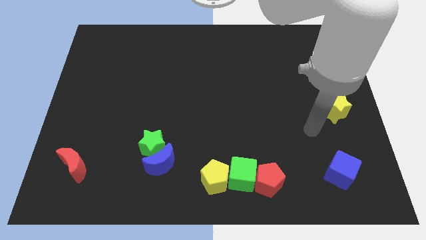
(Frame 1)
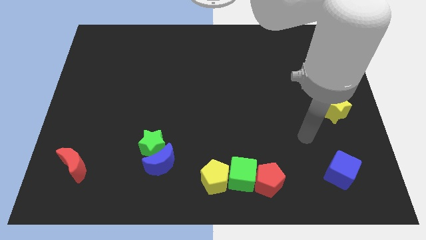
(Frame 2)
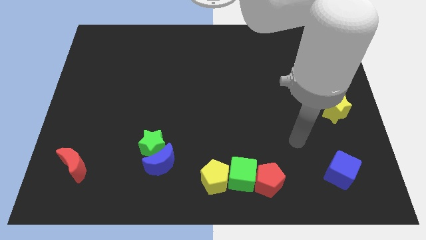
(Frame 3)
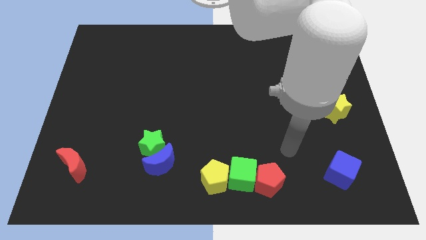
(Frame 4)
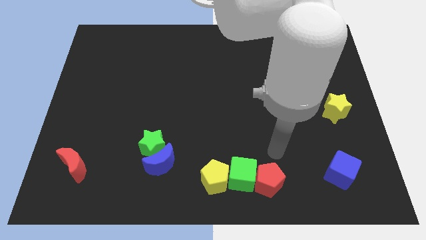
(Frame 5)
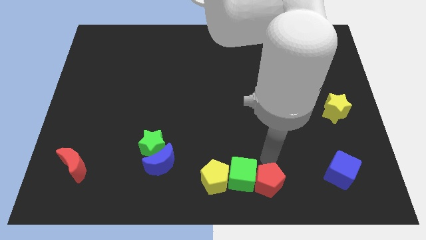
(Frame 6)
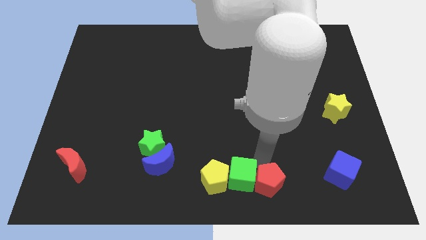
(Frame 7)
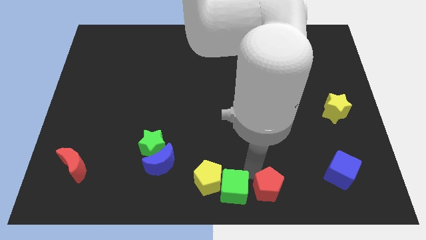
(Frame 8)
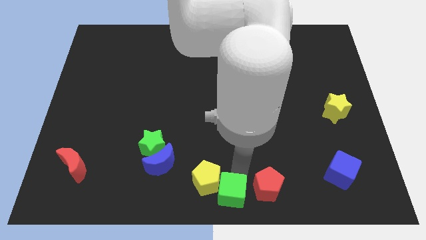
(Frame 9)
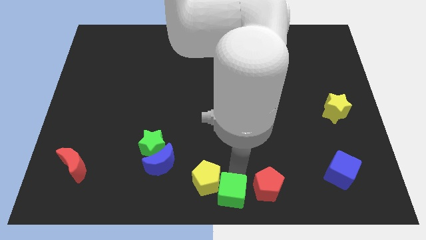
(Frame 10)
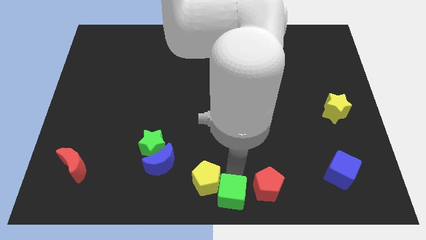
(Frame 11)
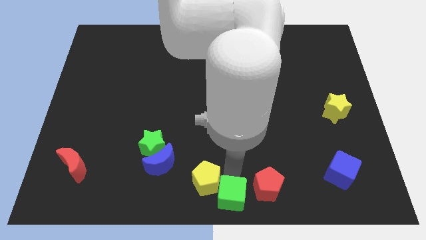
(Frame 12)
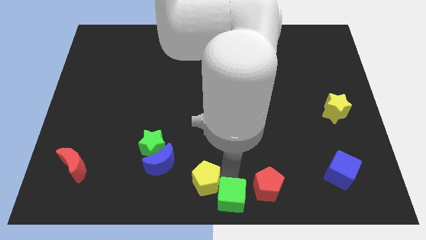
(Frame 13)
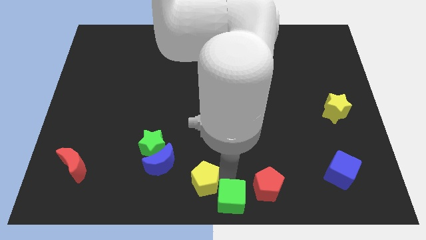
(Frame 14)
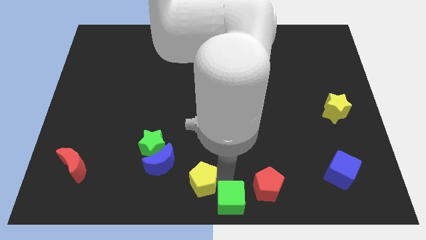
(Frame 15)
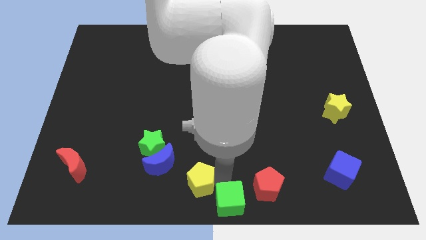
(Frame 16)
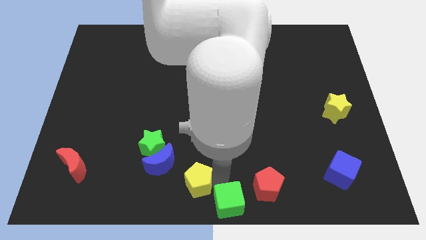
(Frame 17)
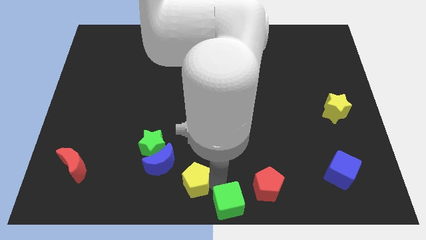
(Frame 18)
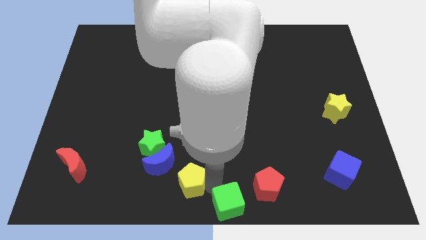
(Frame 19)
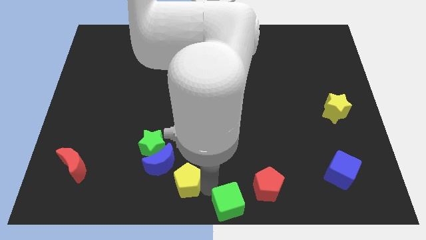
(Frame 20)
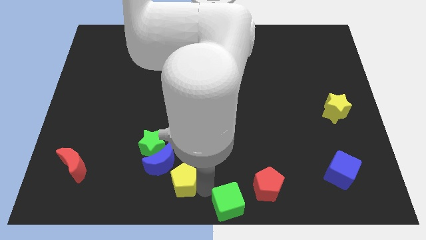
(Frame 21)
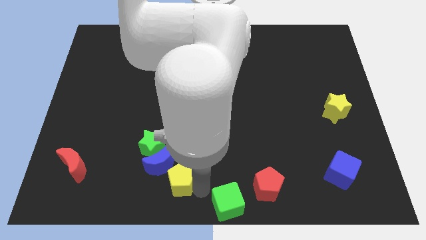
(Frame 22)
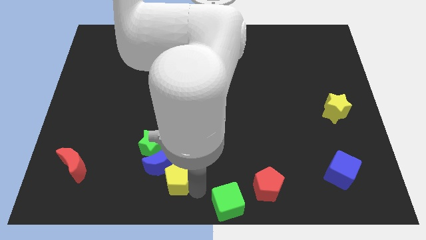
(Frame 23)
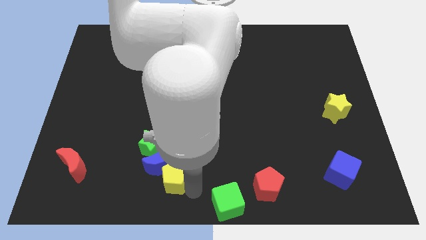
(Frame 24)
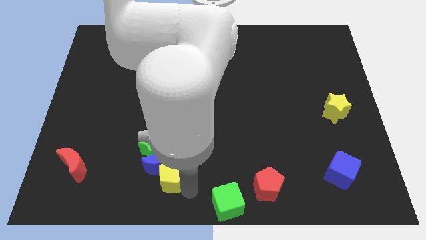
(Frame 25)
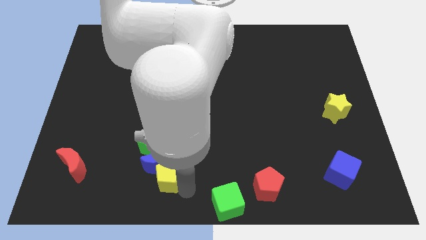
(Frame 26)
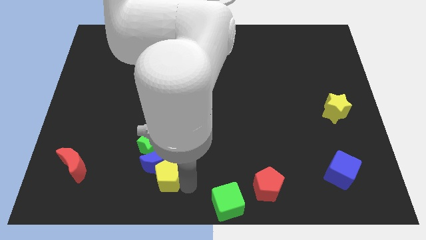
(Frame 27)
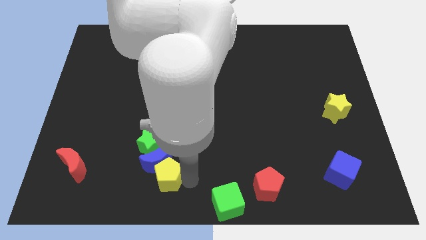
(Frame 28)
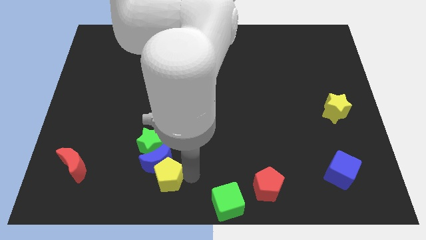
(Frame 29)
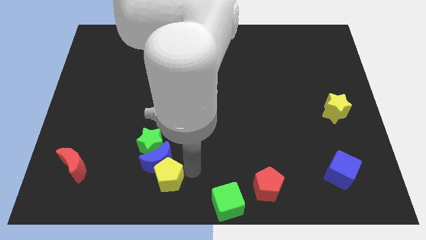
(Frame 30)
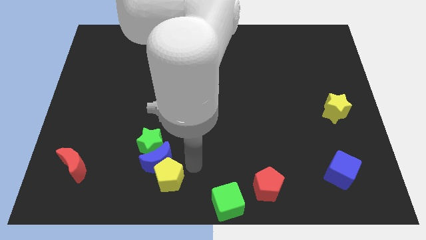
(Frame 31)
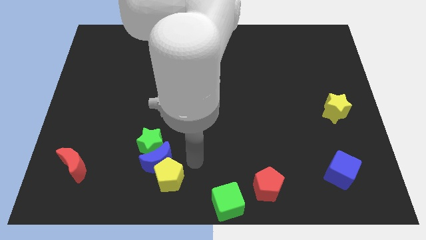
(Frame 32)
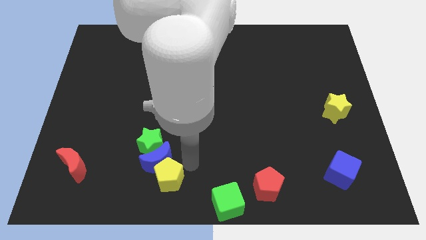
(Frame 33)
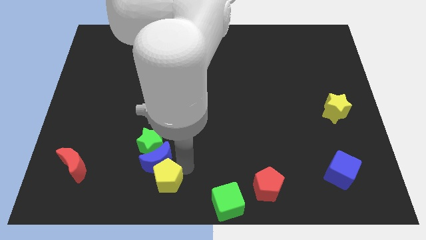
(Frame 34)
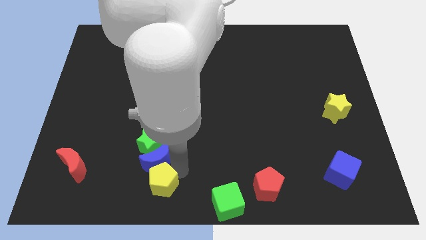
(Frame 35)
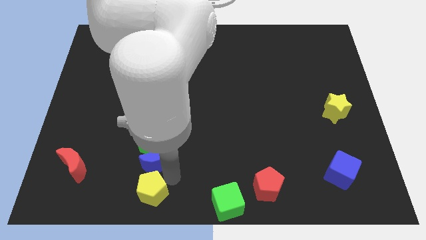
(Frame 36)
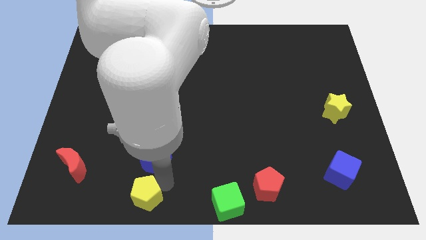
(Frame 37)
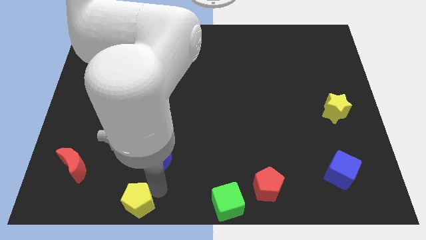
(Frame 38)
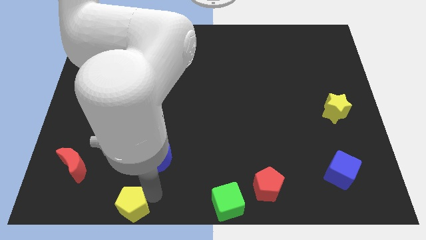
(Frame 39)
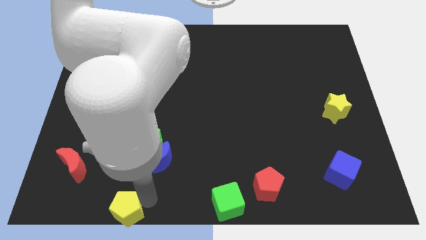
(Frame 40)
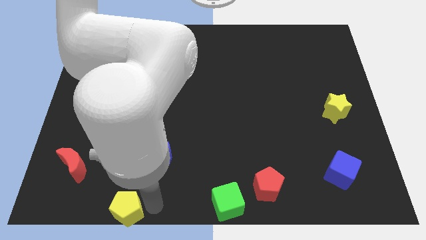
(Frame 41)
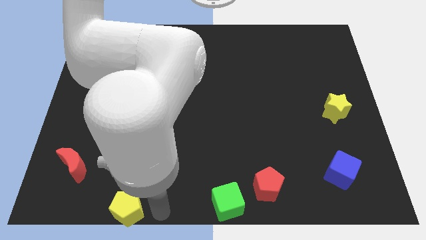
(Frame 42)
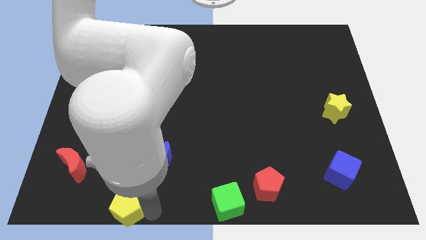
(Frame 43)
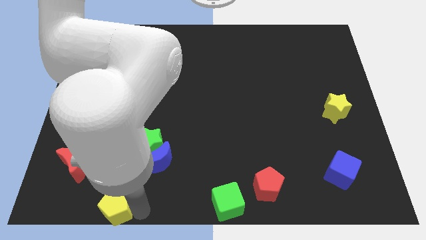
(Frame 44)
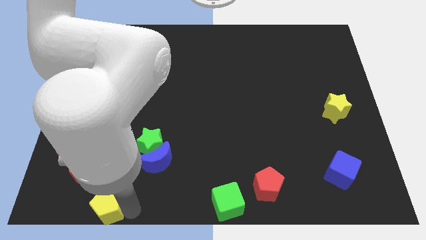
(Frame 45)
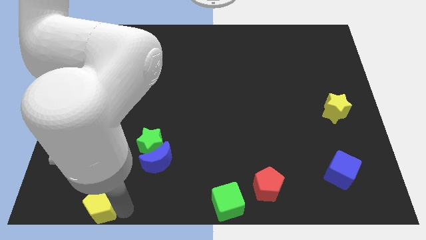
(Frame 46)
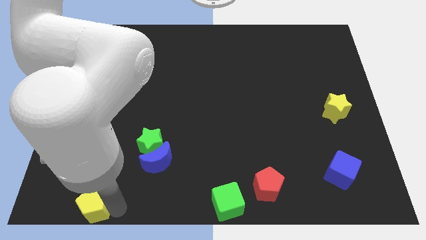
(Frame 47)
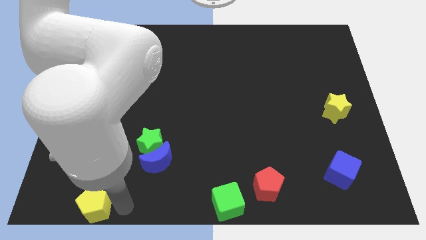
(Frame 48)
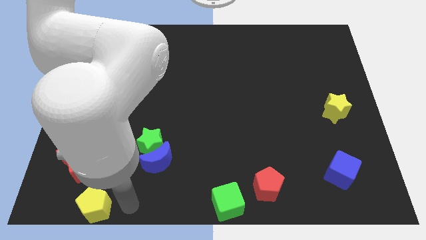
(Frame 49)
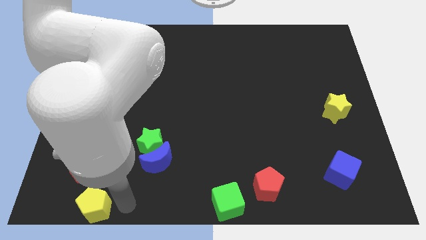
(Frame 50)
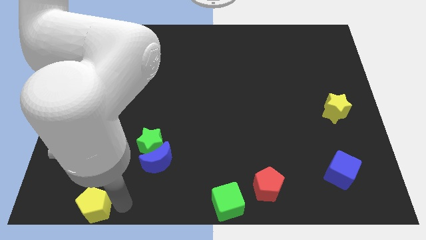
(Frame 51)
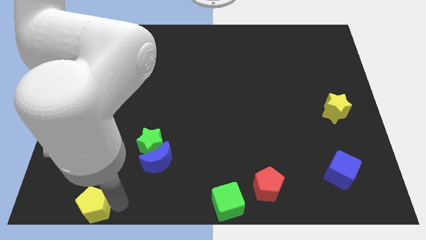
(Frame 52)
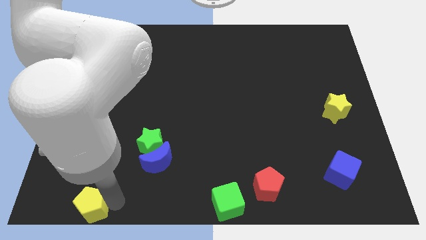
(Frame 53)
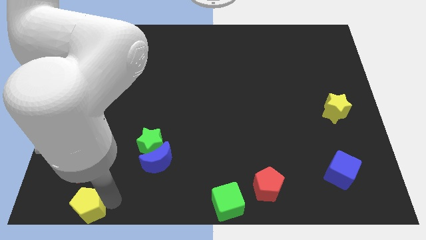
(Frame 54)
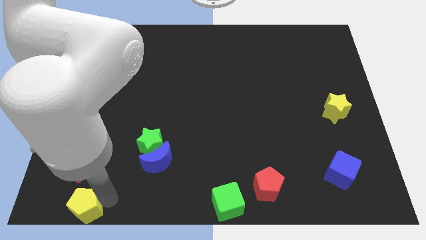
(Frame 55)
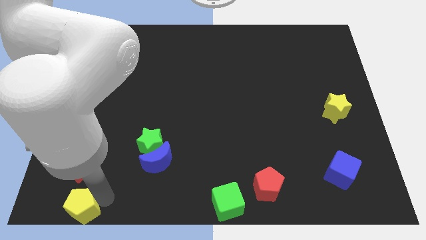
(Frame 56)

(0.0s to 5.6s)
slide the yellow pentagon to the bottom left

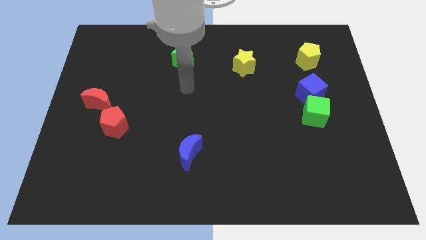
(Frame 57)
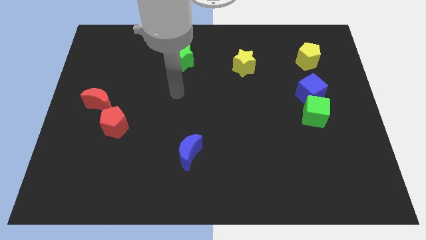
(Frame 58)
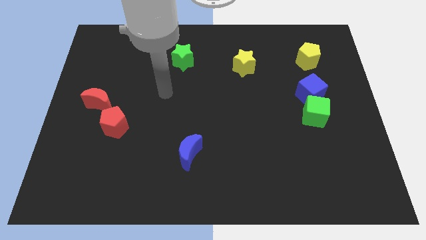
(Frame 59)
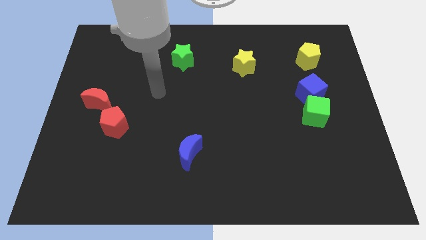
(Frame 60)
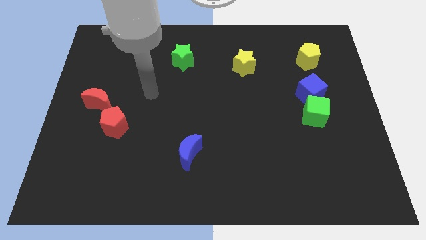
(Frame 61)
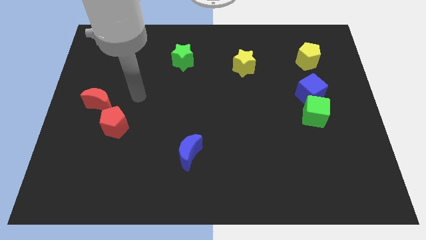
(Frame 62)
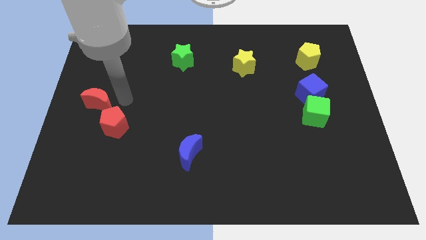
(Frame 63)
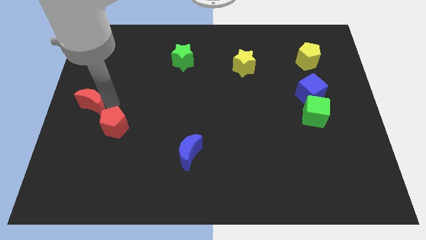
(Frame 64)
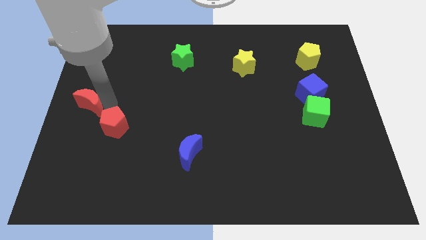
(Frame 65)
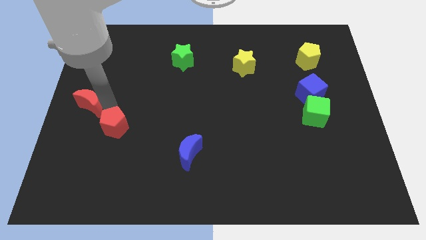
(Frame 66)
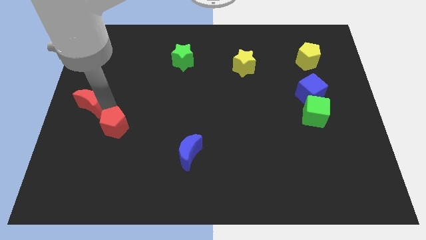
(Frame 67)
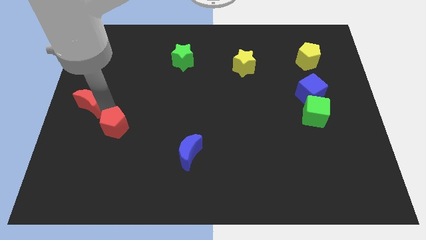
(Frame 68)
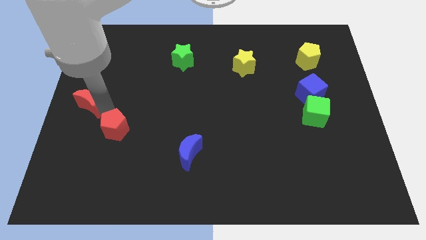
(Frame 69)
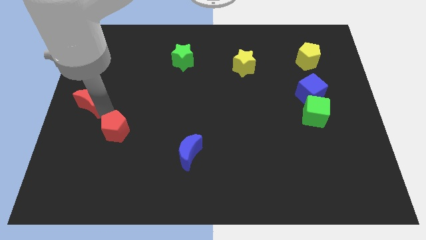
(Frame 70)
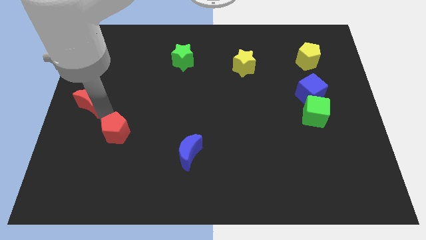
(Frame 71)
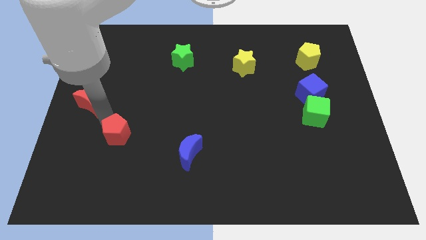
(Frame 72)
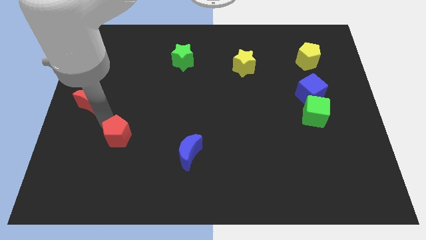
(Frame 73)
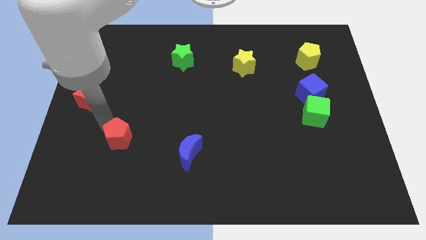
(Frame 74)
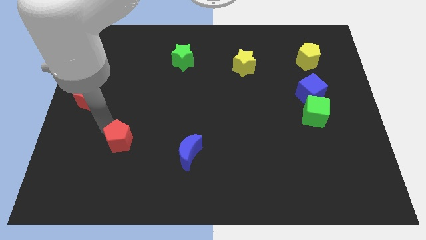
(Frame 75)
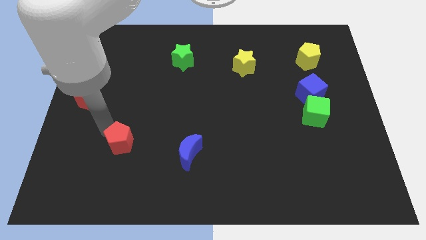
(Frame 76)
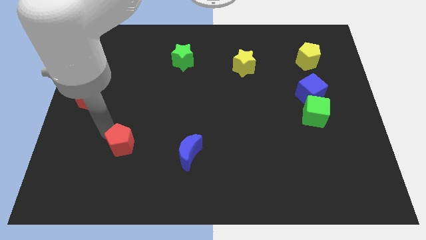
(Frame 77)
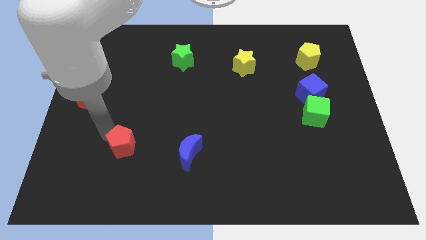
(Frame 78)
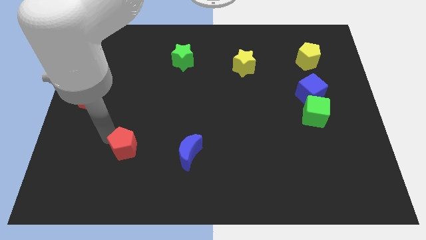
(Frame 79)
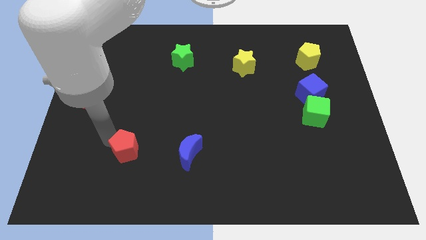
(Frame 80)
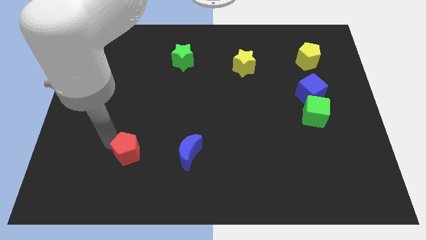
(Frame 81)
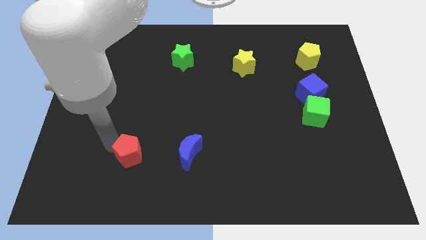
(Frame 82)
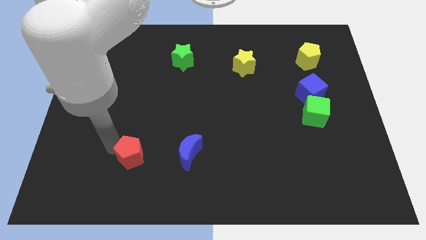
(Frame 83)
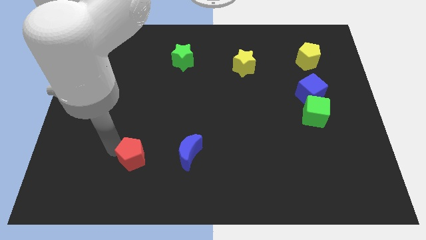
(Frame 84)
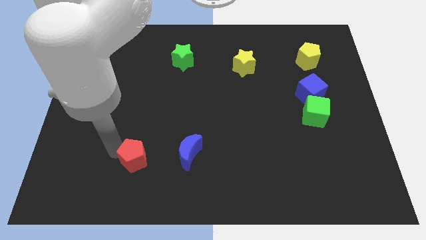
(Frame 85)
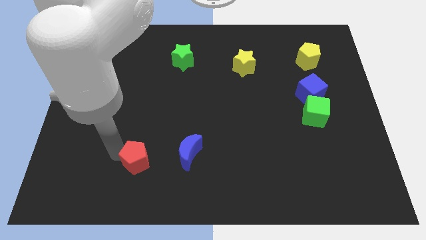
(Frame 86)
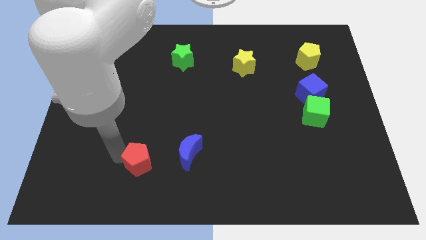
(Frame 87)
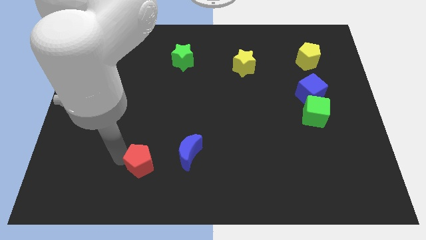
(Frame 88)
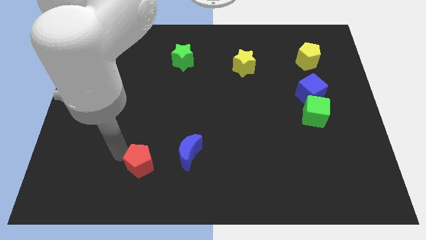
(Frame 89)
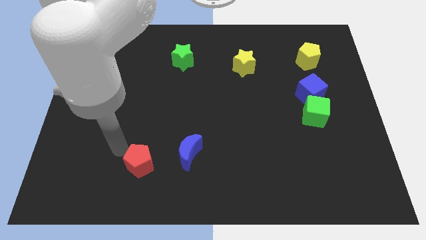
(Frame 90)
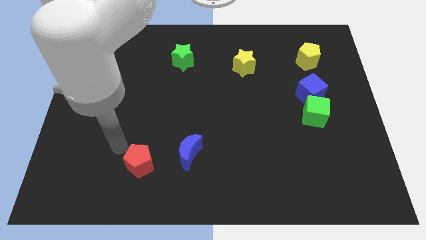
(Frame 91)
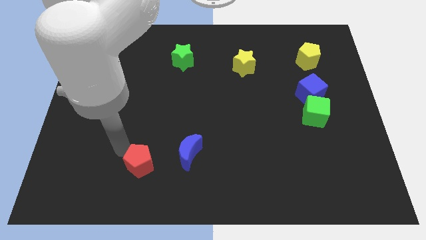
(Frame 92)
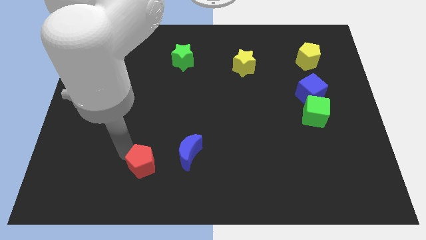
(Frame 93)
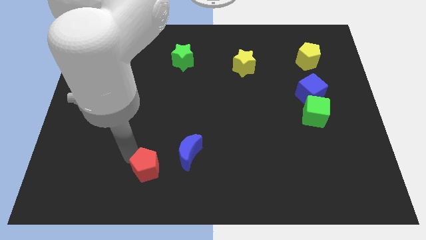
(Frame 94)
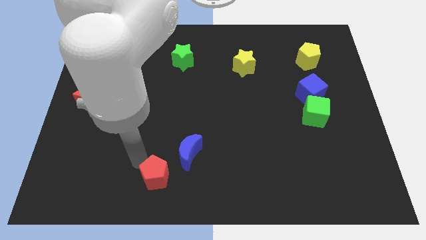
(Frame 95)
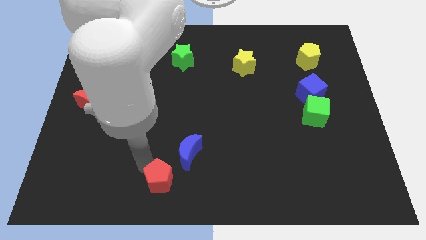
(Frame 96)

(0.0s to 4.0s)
put the red pentagon to the bottom
